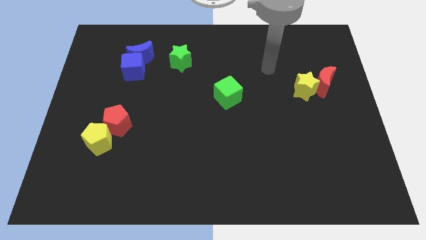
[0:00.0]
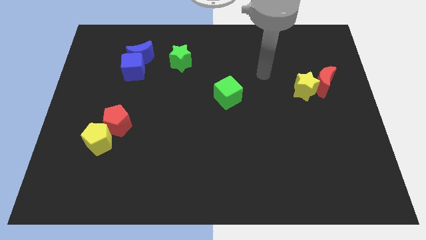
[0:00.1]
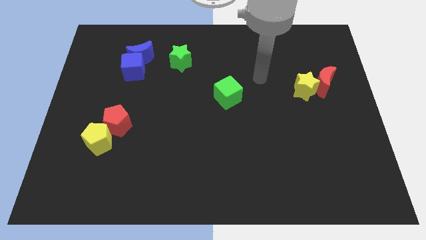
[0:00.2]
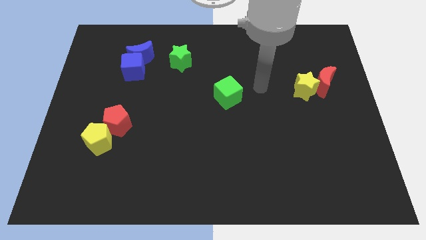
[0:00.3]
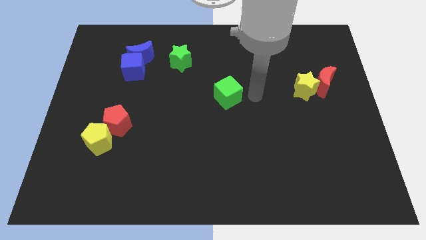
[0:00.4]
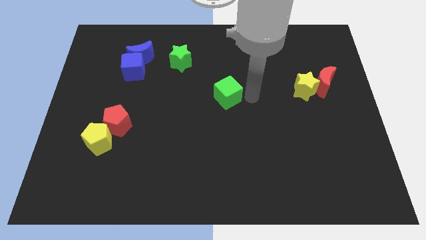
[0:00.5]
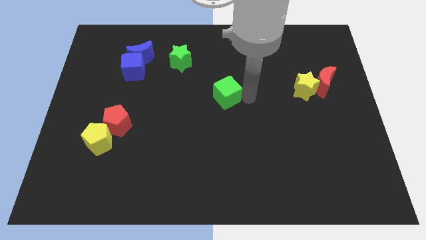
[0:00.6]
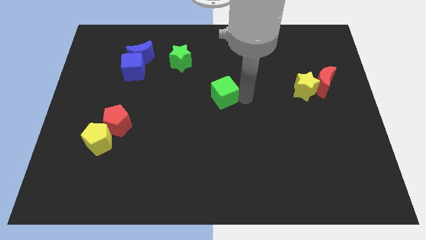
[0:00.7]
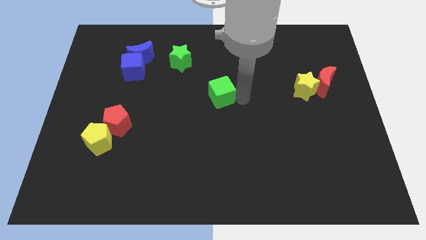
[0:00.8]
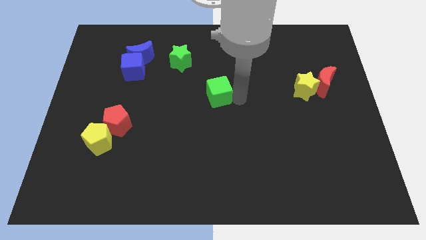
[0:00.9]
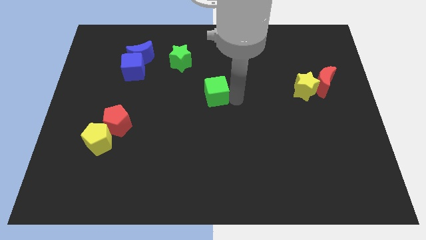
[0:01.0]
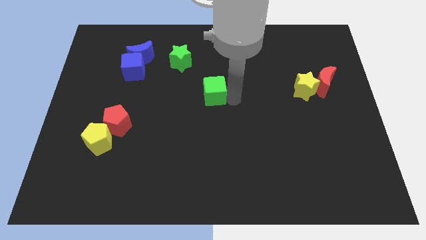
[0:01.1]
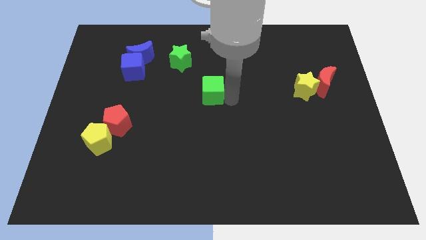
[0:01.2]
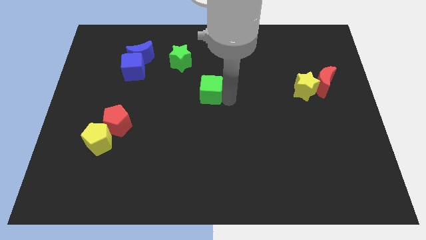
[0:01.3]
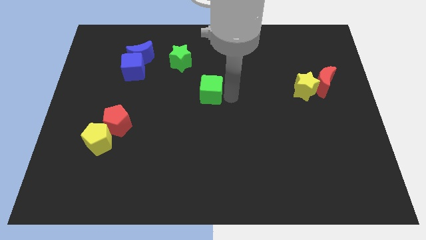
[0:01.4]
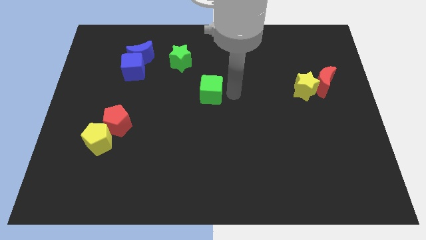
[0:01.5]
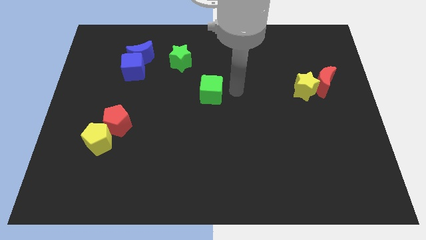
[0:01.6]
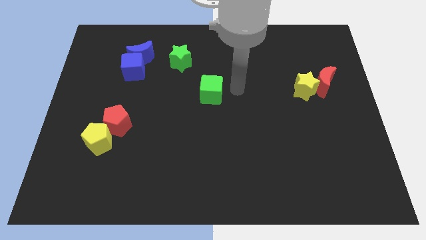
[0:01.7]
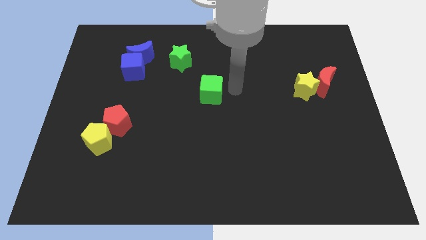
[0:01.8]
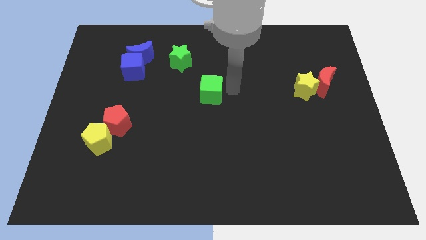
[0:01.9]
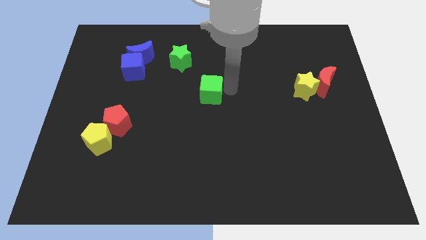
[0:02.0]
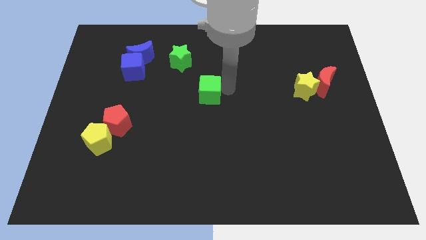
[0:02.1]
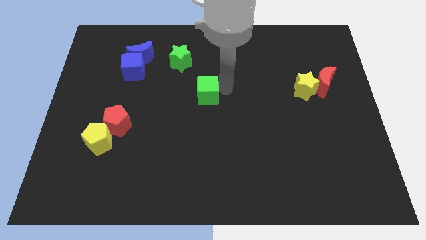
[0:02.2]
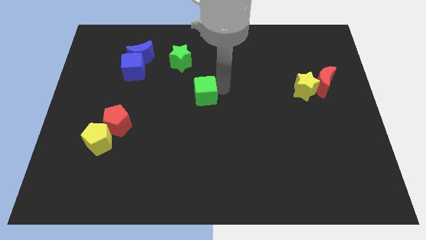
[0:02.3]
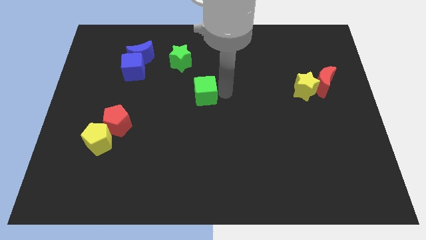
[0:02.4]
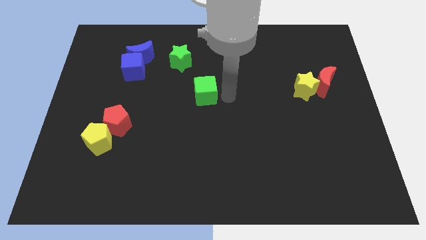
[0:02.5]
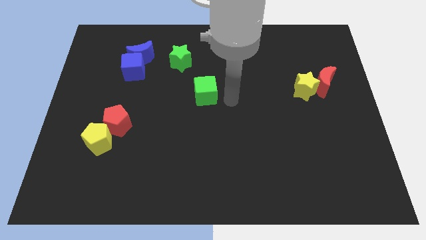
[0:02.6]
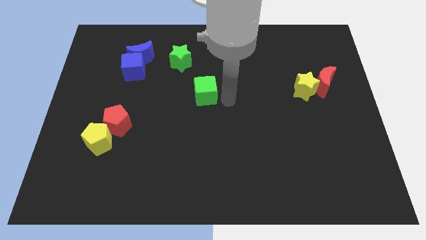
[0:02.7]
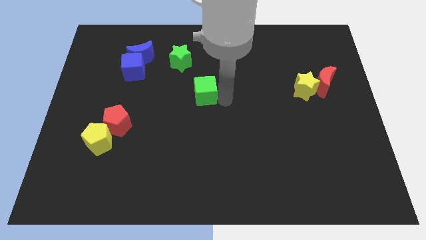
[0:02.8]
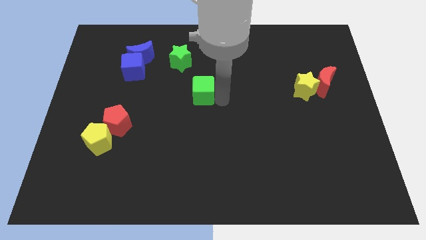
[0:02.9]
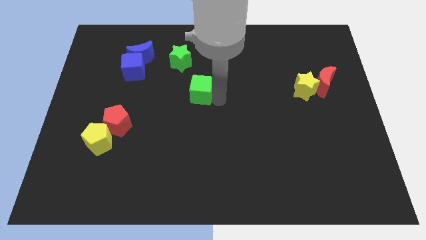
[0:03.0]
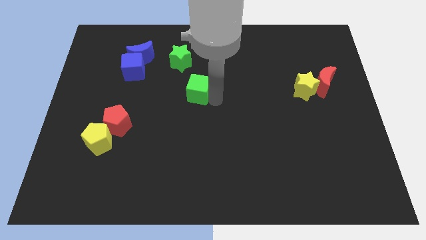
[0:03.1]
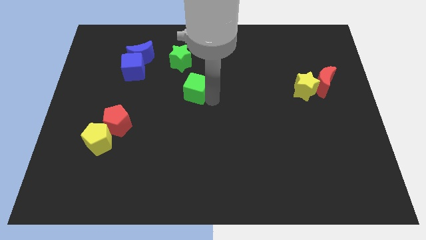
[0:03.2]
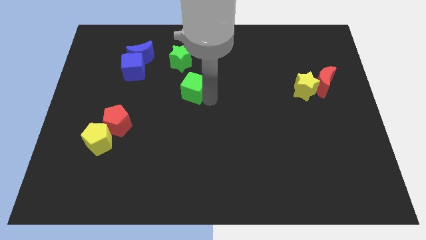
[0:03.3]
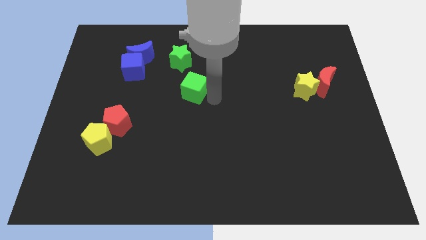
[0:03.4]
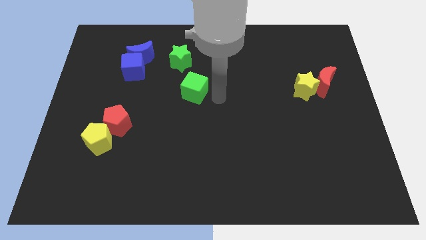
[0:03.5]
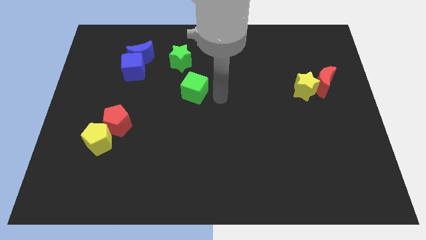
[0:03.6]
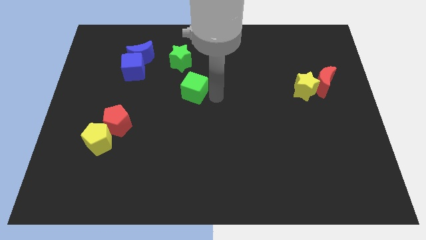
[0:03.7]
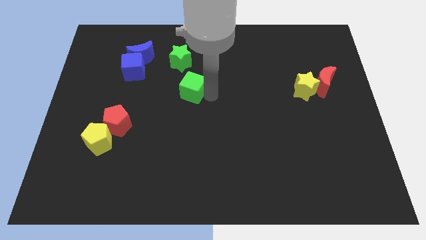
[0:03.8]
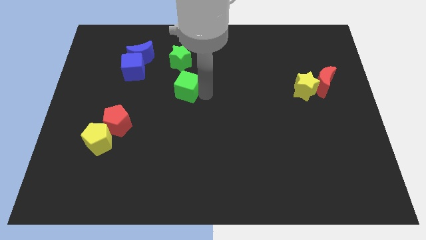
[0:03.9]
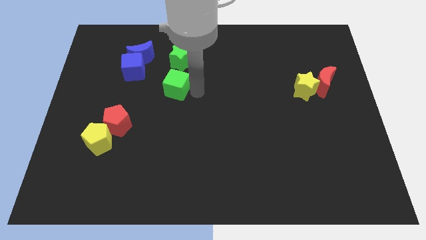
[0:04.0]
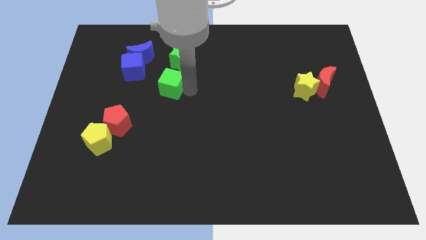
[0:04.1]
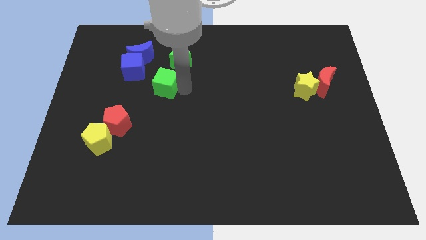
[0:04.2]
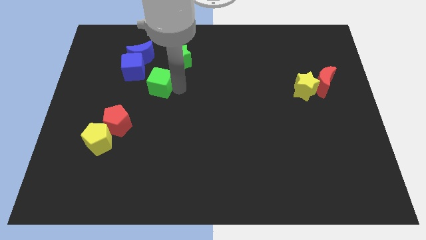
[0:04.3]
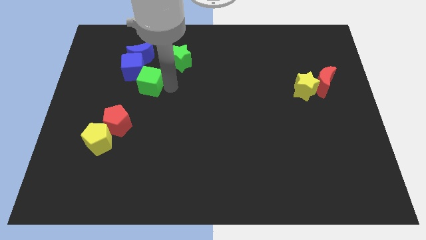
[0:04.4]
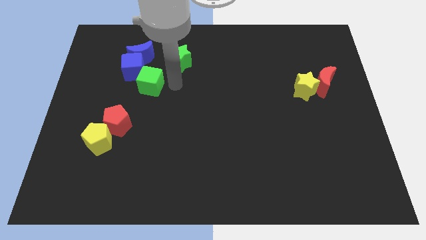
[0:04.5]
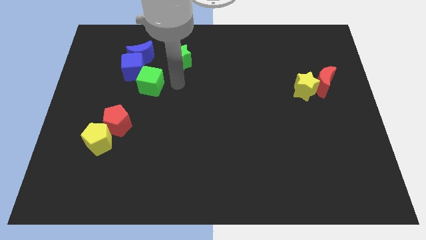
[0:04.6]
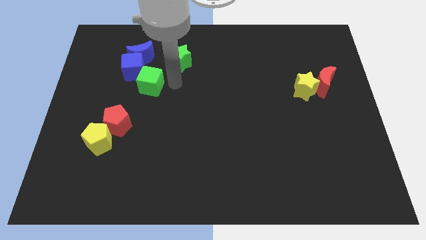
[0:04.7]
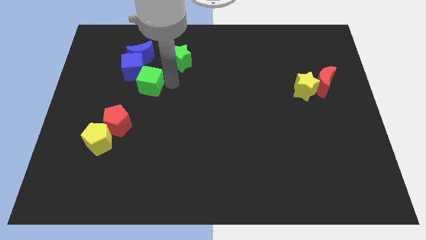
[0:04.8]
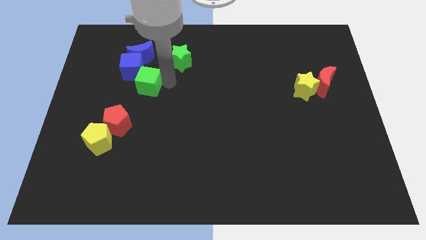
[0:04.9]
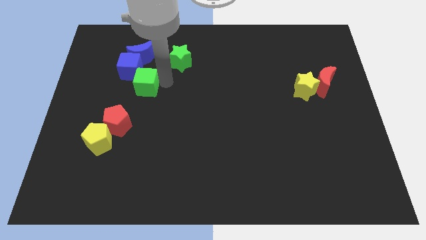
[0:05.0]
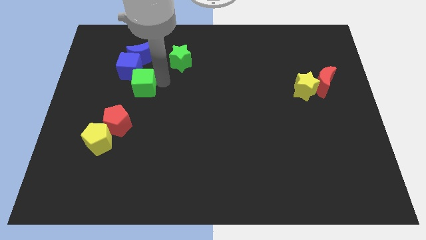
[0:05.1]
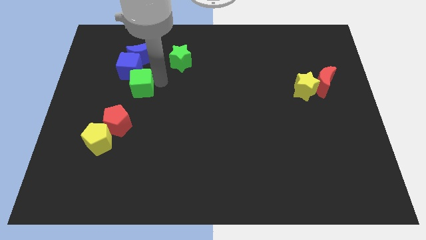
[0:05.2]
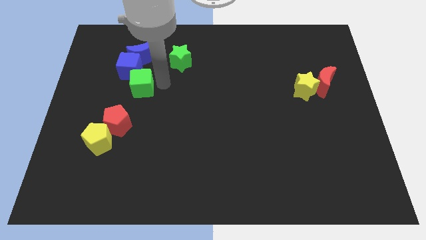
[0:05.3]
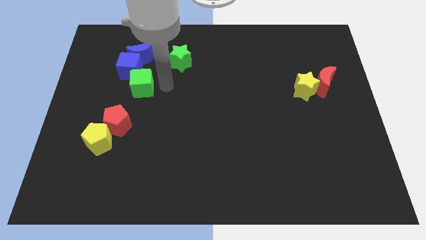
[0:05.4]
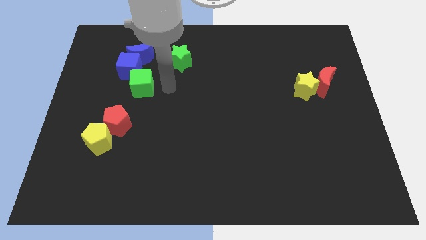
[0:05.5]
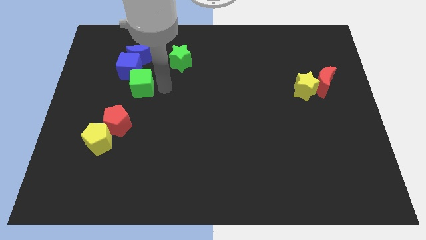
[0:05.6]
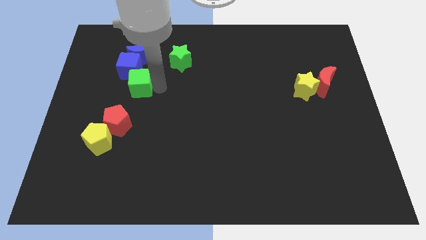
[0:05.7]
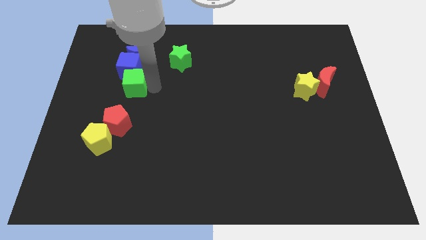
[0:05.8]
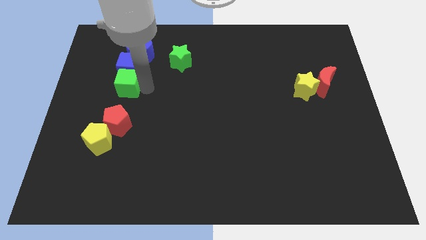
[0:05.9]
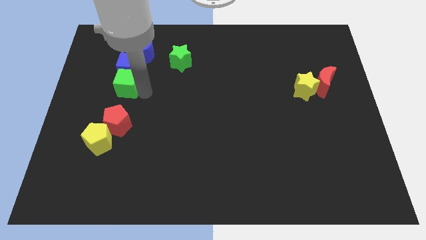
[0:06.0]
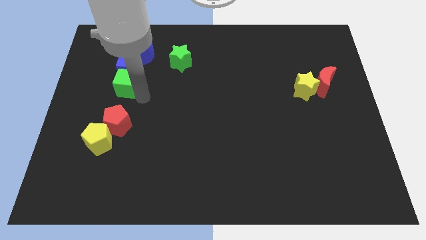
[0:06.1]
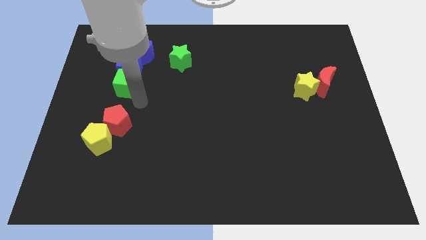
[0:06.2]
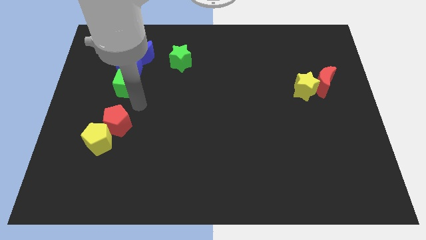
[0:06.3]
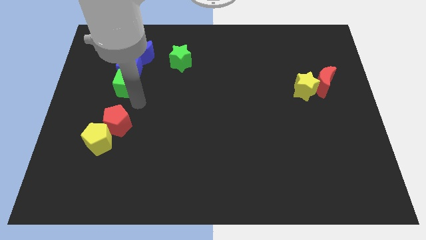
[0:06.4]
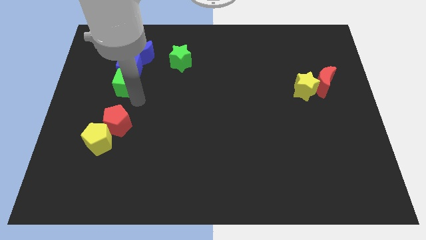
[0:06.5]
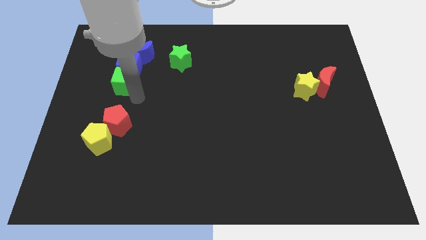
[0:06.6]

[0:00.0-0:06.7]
push the green cube to the bottom left side of the blue moon

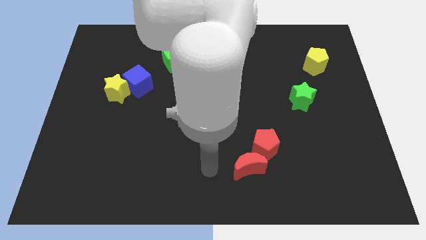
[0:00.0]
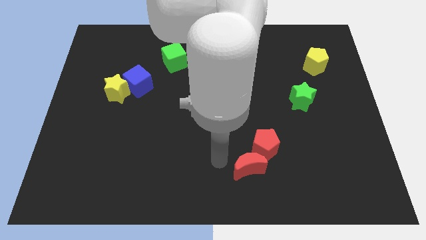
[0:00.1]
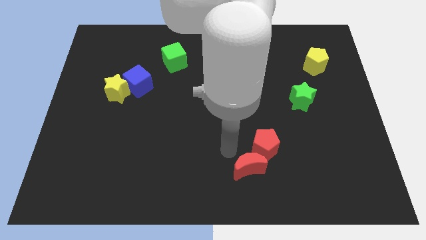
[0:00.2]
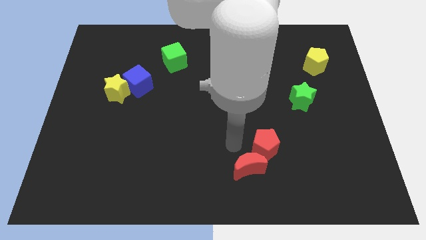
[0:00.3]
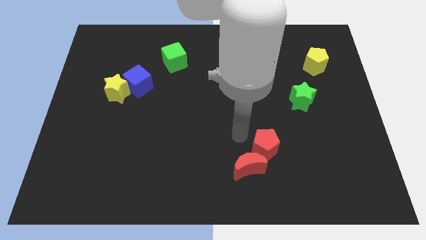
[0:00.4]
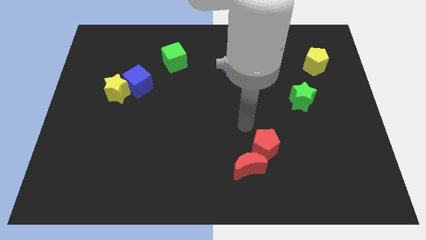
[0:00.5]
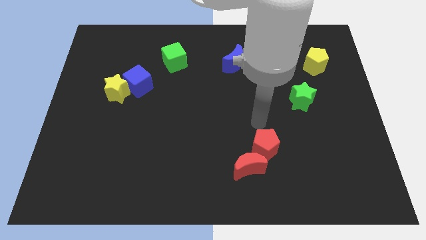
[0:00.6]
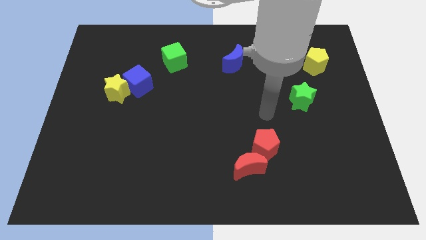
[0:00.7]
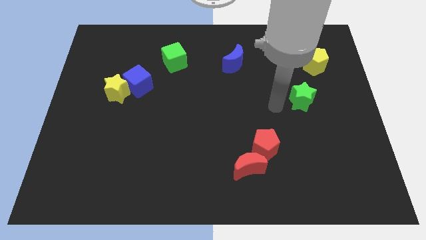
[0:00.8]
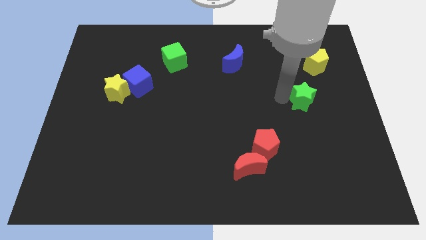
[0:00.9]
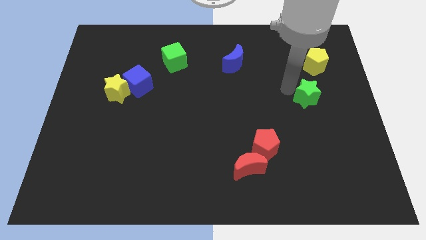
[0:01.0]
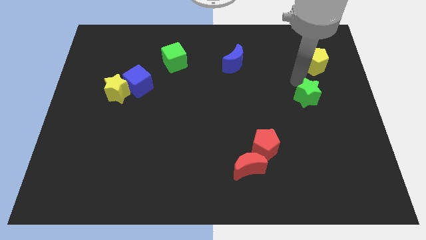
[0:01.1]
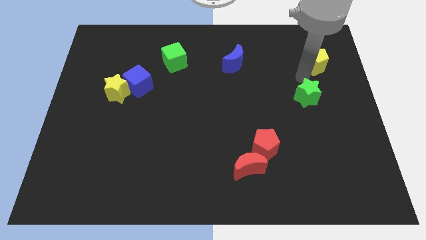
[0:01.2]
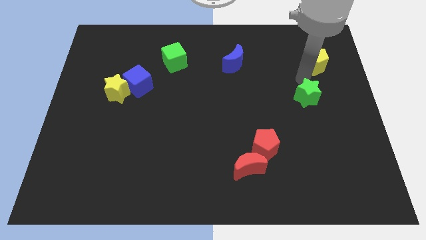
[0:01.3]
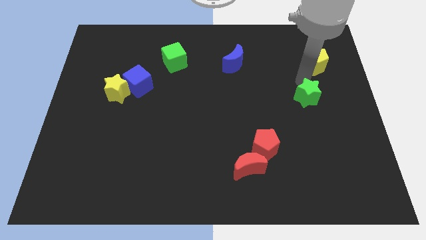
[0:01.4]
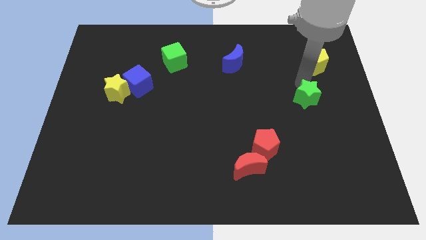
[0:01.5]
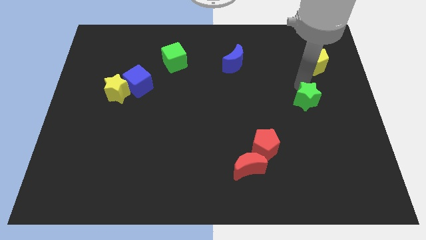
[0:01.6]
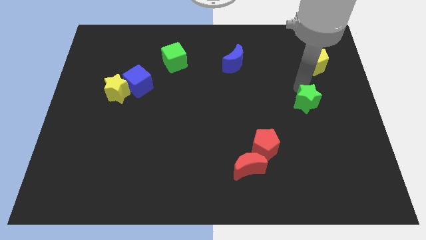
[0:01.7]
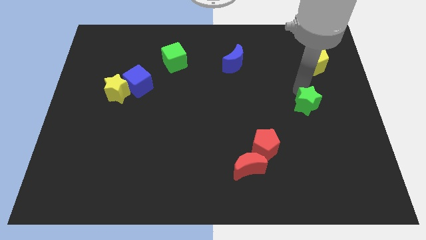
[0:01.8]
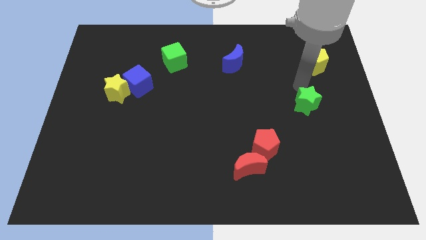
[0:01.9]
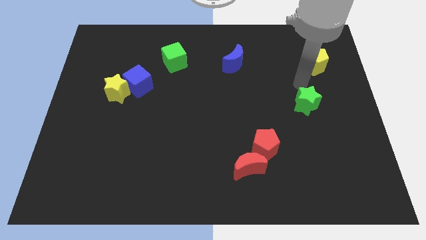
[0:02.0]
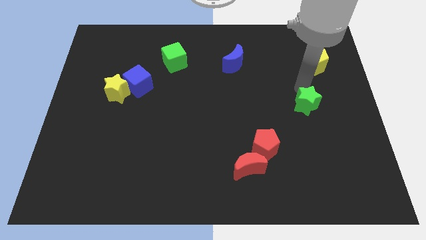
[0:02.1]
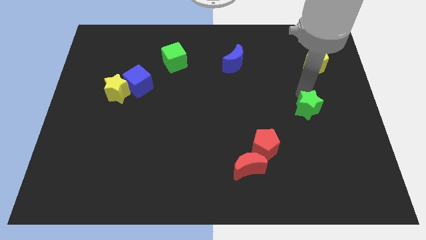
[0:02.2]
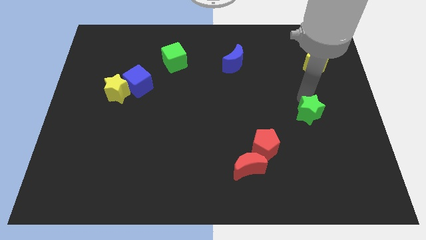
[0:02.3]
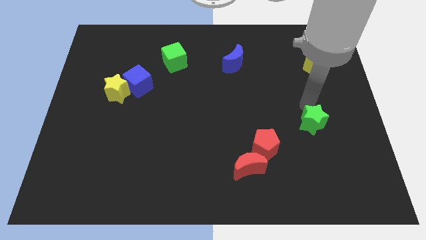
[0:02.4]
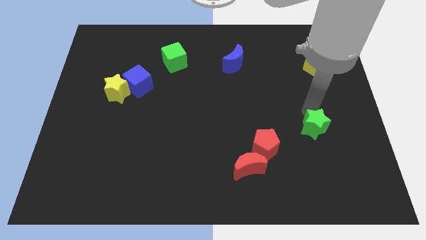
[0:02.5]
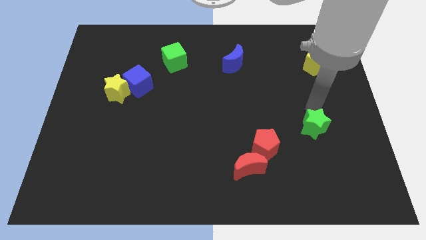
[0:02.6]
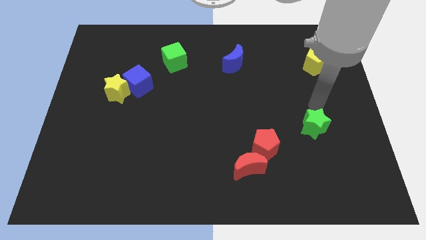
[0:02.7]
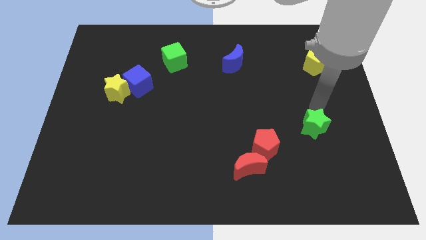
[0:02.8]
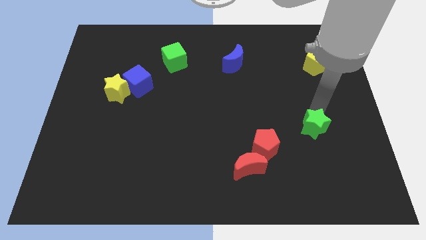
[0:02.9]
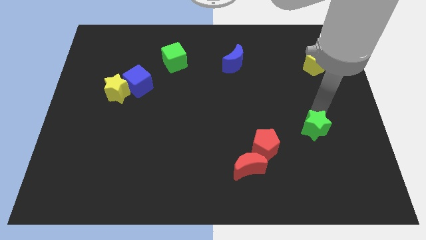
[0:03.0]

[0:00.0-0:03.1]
move the green star to the right side of the red pentagon
